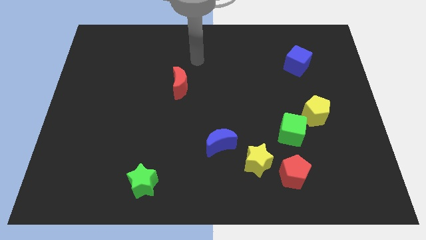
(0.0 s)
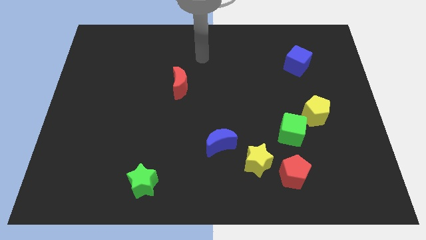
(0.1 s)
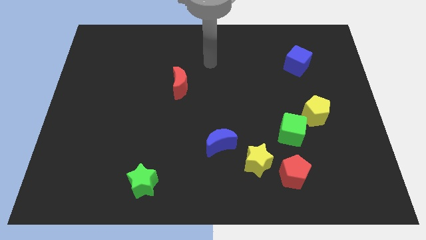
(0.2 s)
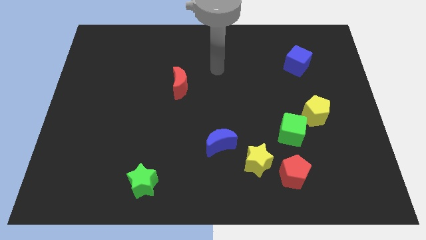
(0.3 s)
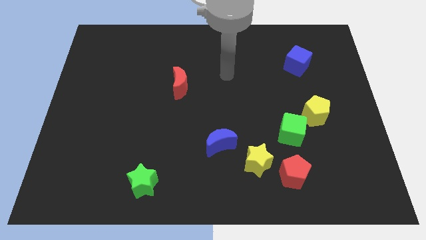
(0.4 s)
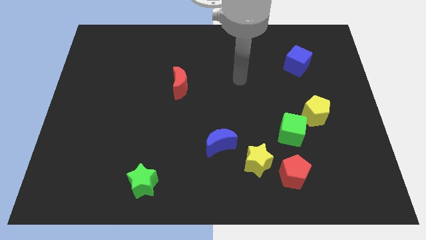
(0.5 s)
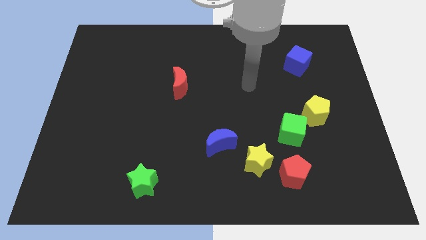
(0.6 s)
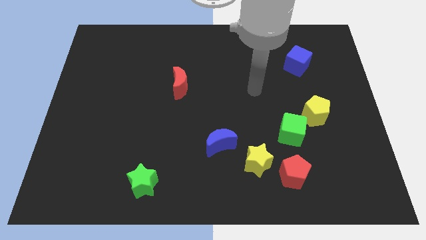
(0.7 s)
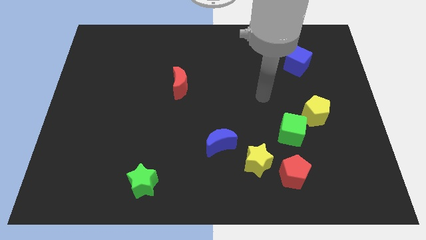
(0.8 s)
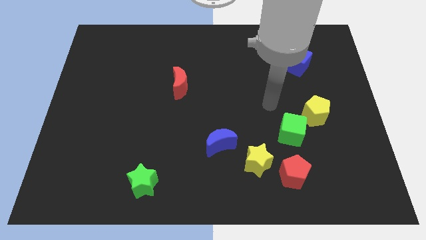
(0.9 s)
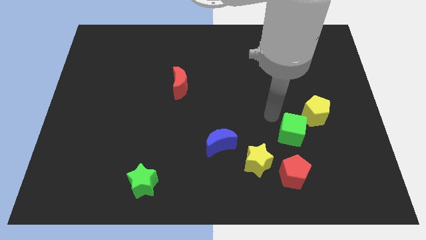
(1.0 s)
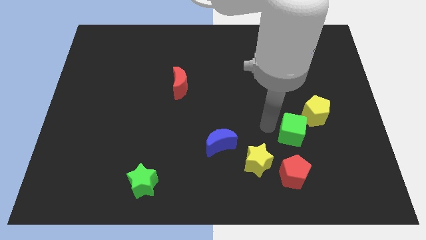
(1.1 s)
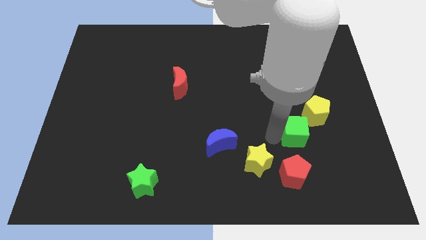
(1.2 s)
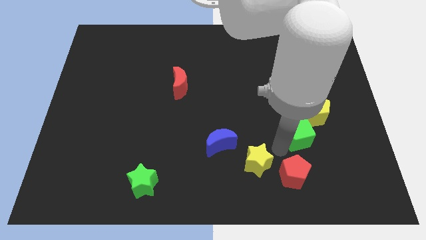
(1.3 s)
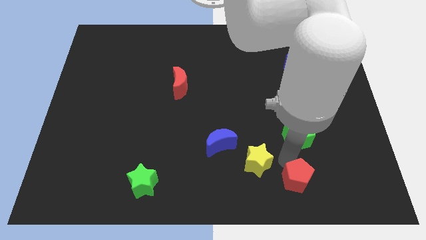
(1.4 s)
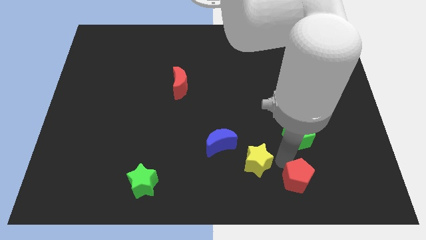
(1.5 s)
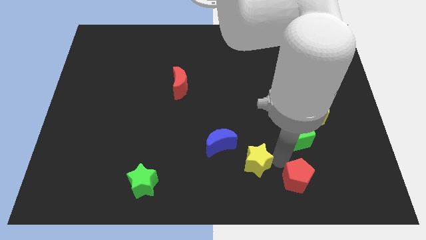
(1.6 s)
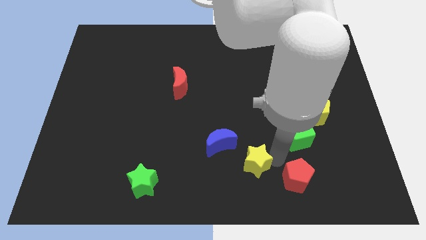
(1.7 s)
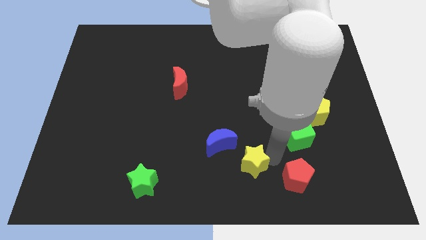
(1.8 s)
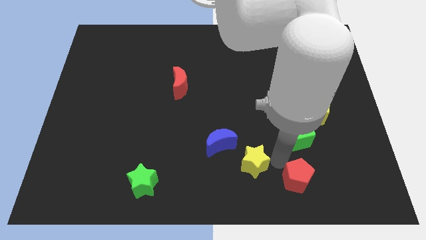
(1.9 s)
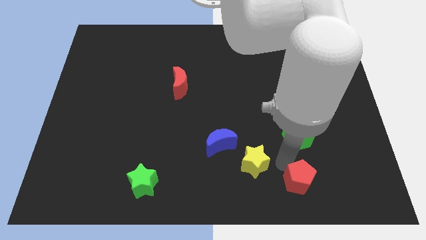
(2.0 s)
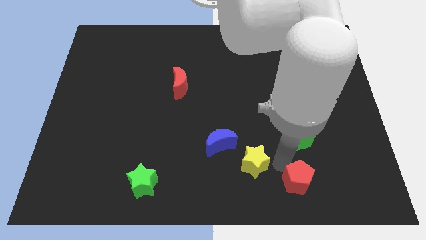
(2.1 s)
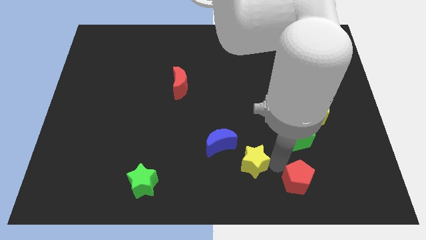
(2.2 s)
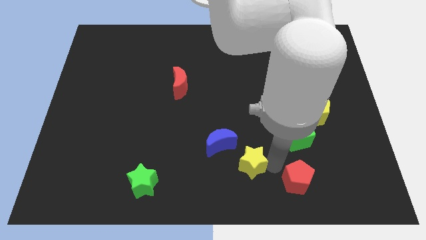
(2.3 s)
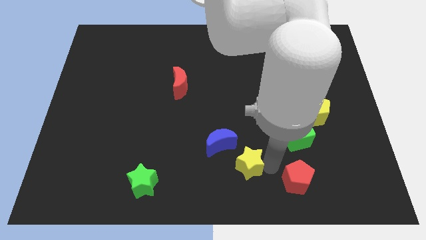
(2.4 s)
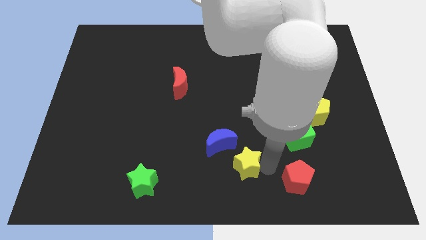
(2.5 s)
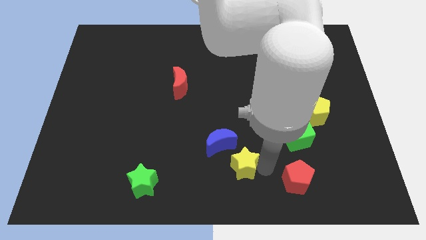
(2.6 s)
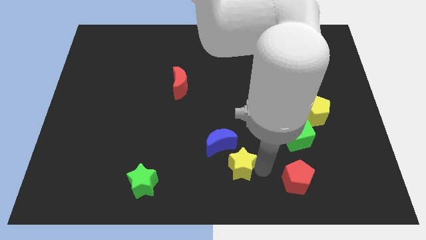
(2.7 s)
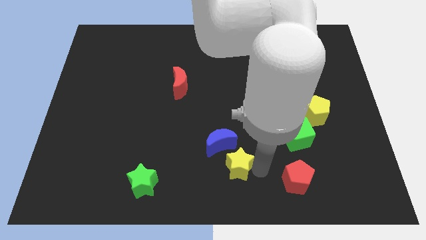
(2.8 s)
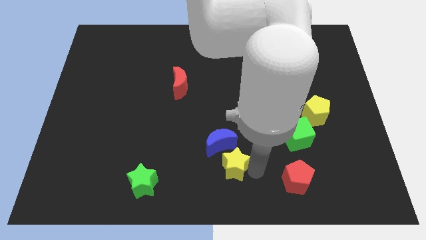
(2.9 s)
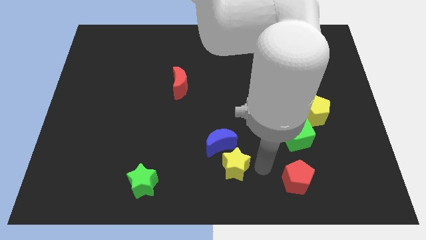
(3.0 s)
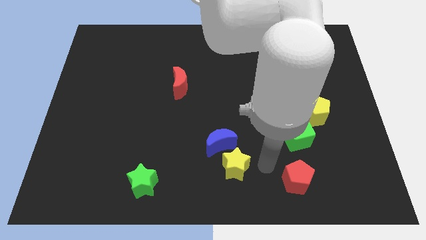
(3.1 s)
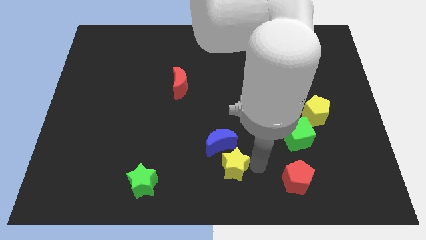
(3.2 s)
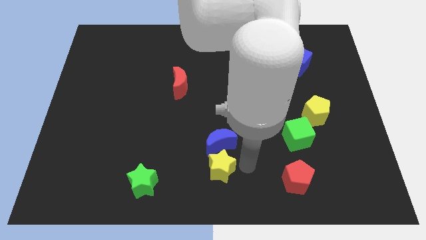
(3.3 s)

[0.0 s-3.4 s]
push the yellow star a bit to the left

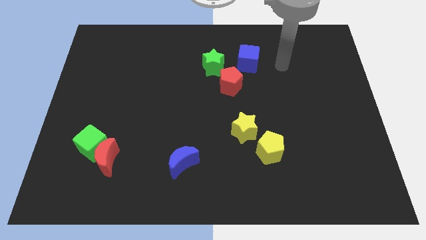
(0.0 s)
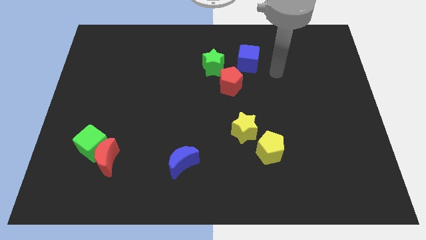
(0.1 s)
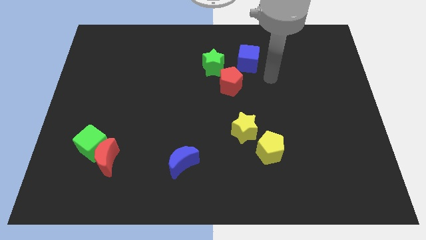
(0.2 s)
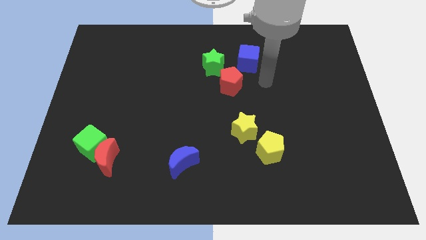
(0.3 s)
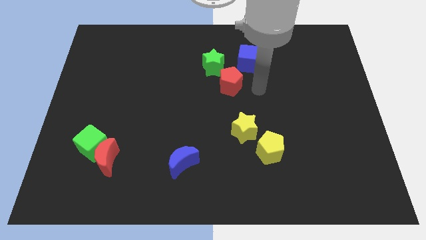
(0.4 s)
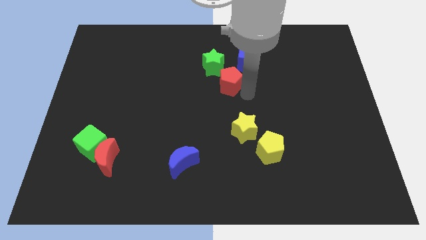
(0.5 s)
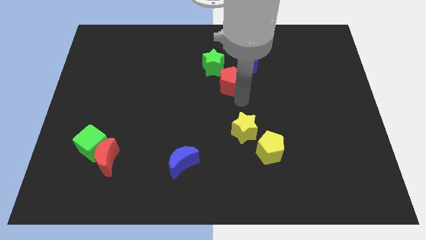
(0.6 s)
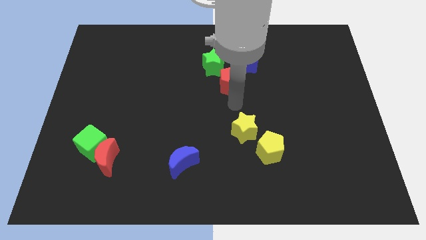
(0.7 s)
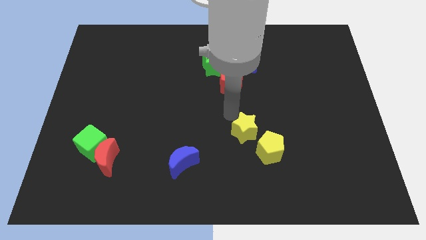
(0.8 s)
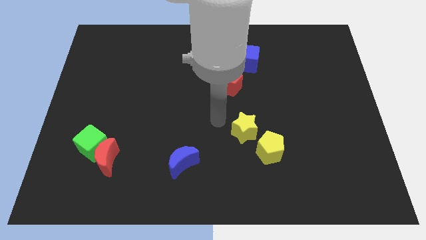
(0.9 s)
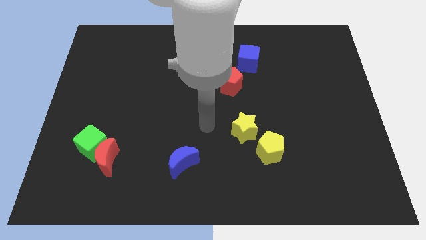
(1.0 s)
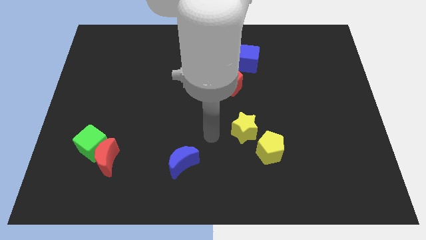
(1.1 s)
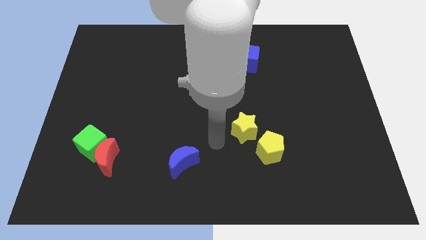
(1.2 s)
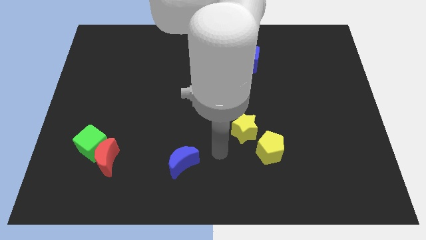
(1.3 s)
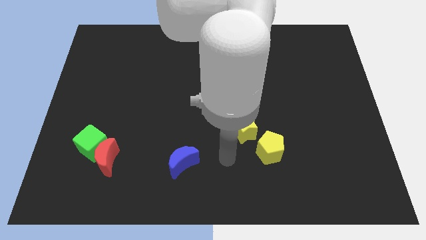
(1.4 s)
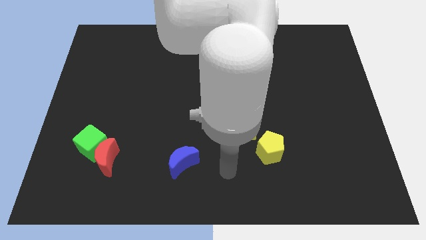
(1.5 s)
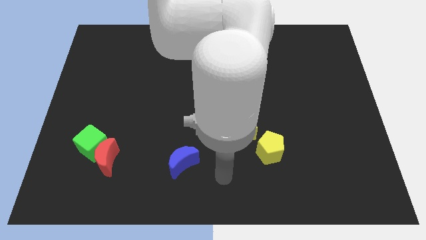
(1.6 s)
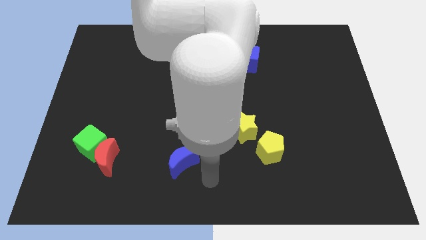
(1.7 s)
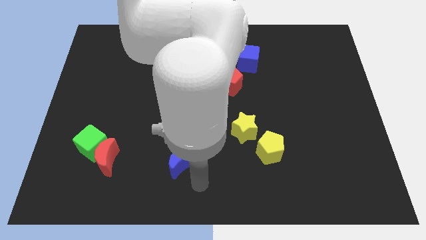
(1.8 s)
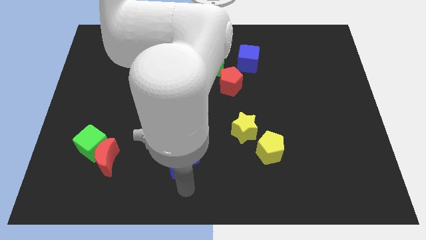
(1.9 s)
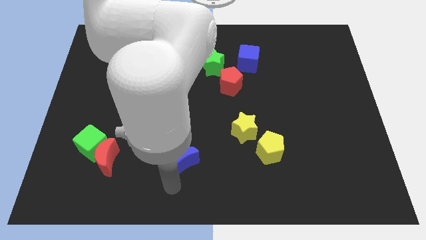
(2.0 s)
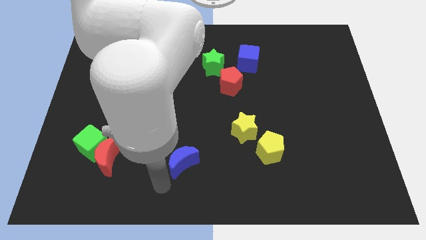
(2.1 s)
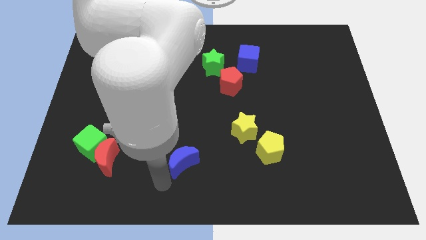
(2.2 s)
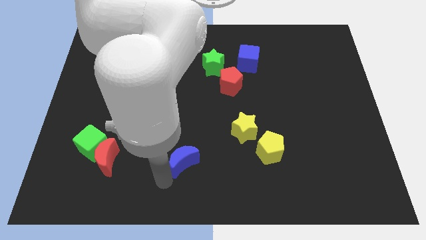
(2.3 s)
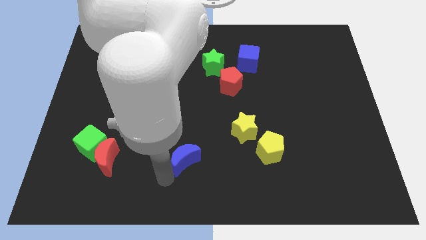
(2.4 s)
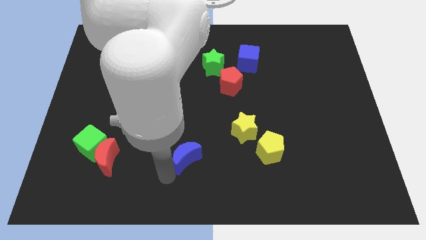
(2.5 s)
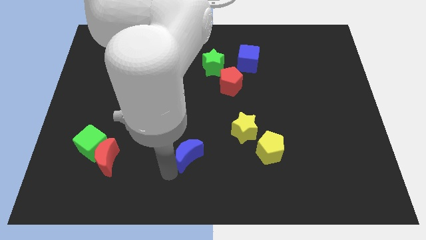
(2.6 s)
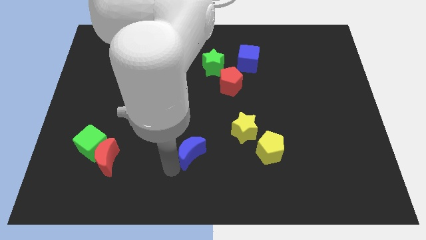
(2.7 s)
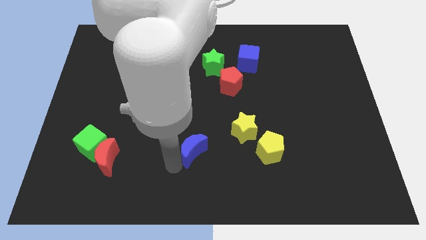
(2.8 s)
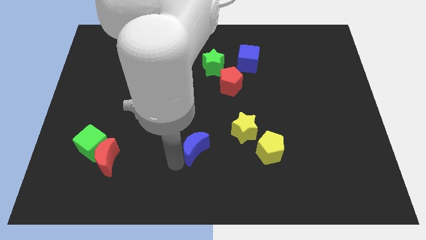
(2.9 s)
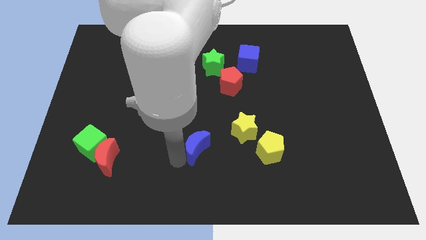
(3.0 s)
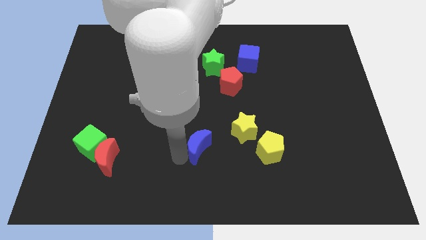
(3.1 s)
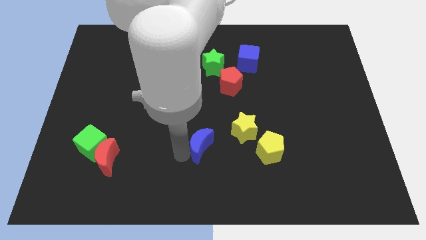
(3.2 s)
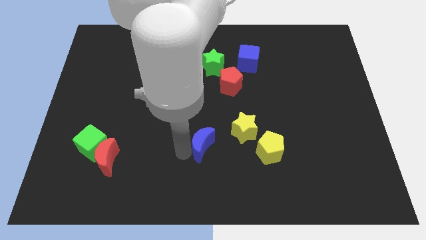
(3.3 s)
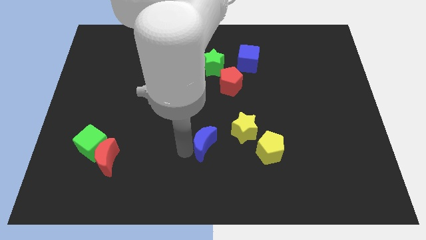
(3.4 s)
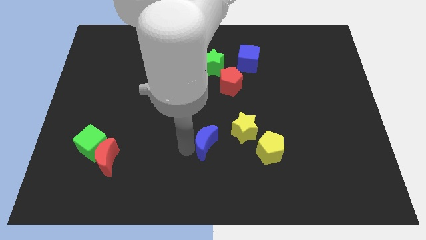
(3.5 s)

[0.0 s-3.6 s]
push the blue moon upwards and to the right diagonally somewhat

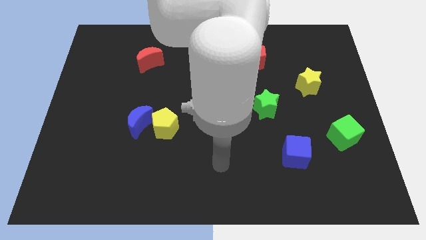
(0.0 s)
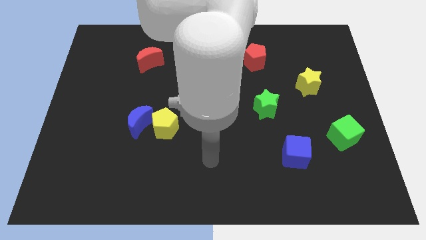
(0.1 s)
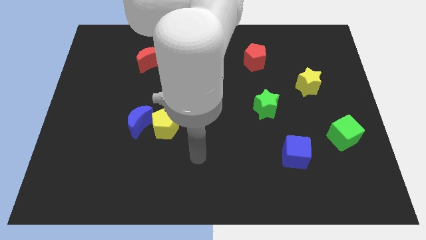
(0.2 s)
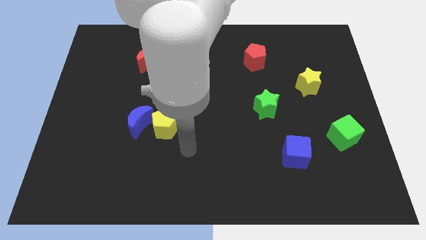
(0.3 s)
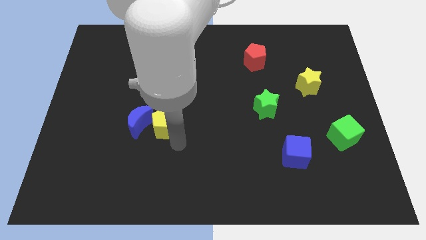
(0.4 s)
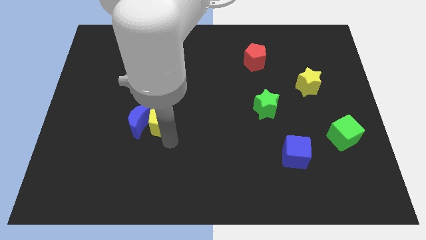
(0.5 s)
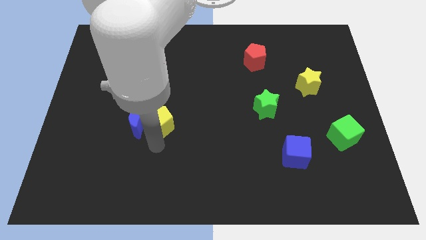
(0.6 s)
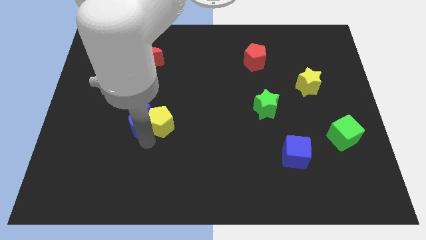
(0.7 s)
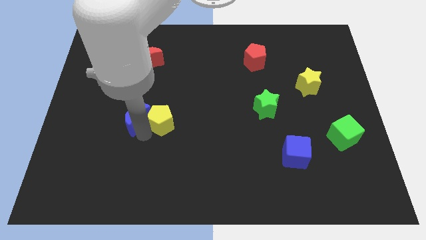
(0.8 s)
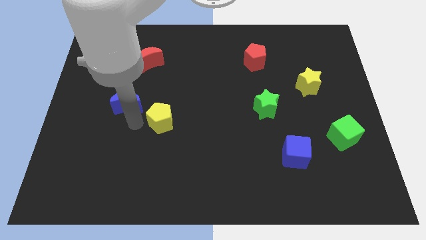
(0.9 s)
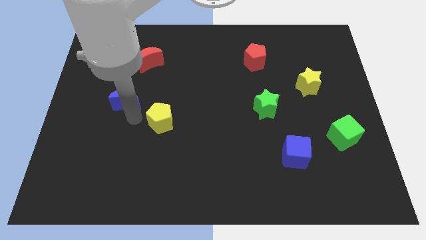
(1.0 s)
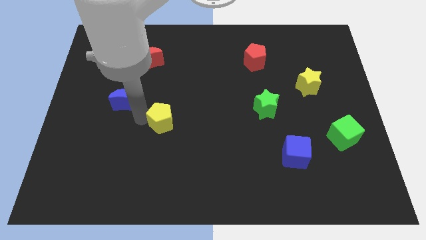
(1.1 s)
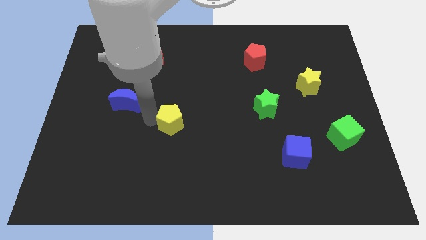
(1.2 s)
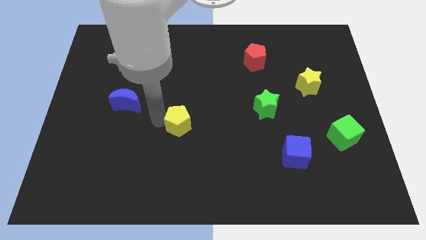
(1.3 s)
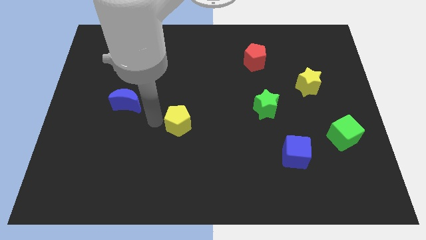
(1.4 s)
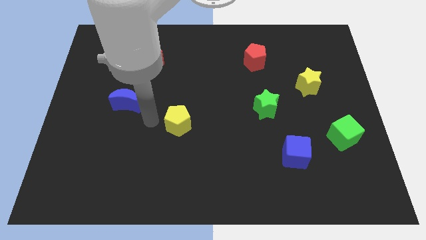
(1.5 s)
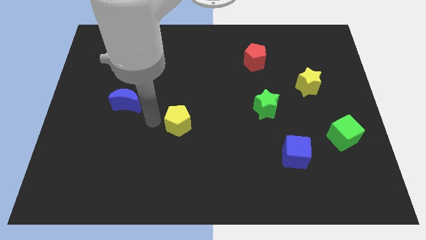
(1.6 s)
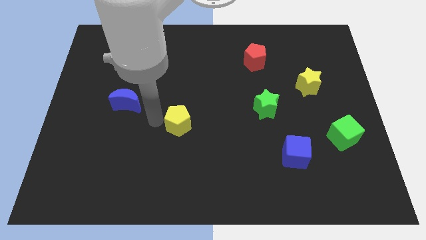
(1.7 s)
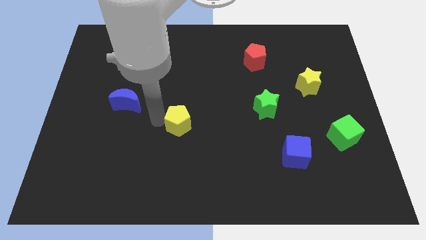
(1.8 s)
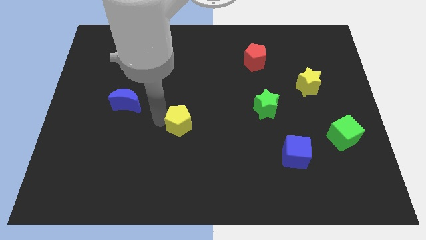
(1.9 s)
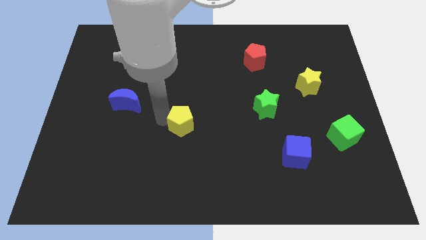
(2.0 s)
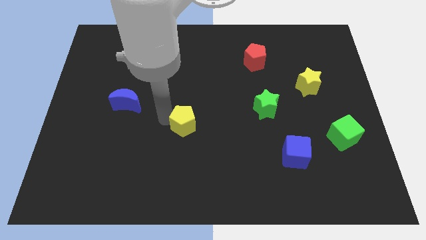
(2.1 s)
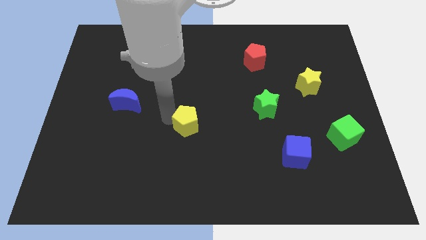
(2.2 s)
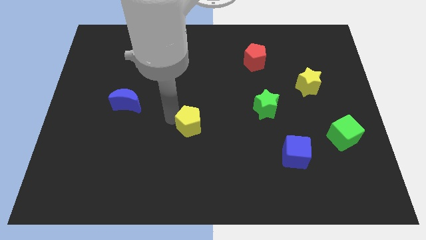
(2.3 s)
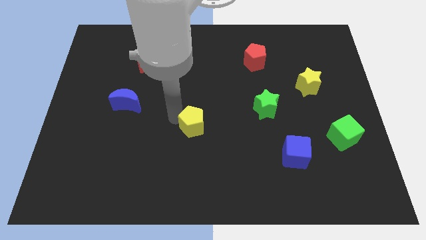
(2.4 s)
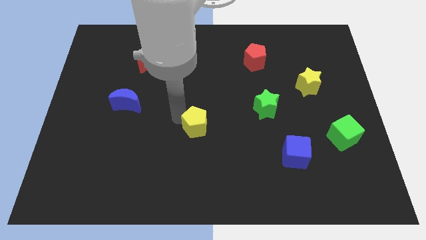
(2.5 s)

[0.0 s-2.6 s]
push the yellow pentagon to the right slightly
